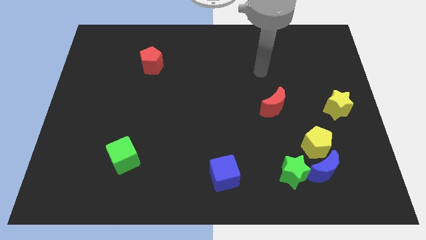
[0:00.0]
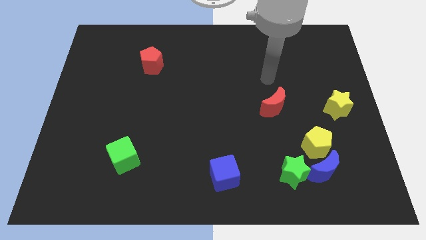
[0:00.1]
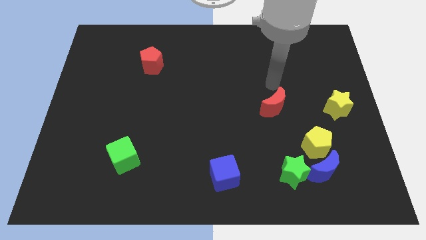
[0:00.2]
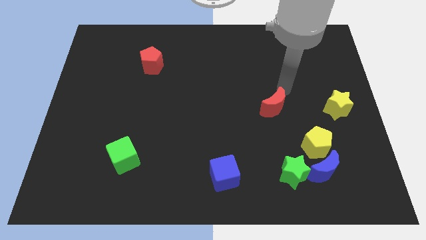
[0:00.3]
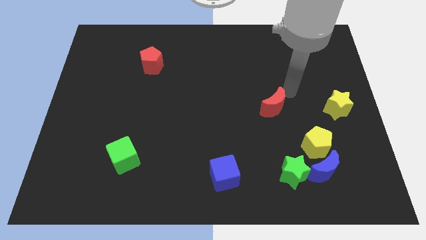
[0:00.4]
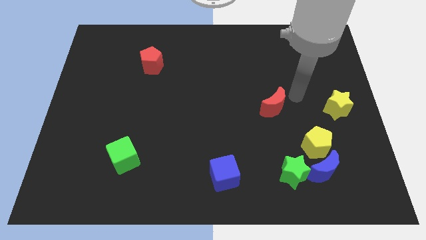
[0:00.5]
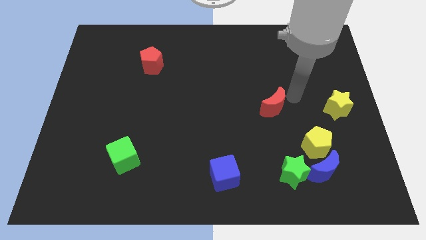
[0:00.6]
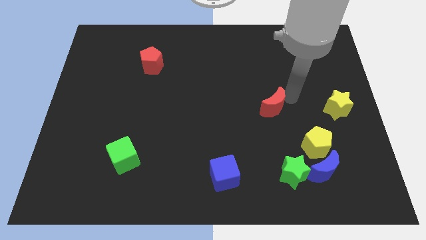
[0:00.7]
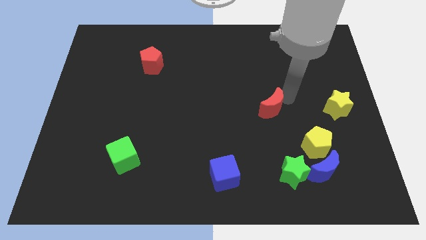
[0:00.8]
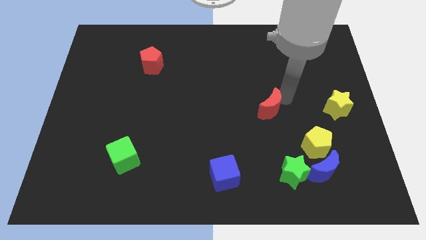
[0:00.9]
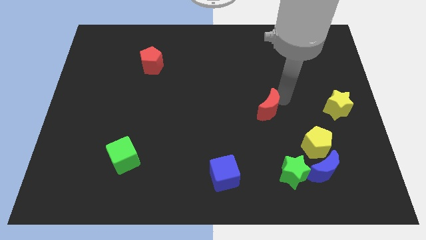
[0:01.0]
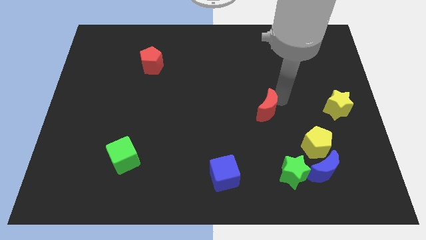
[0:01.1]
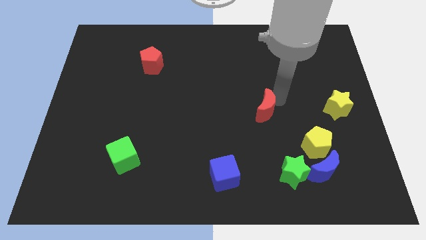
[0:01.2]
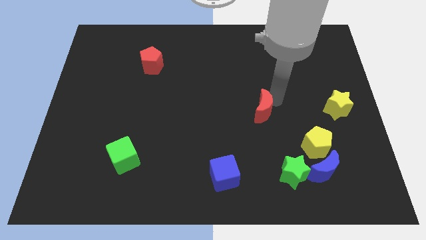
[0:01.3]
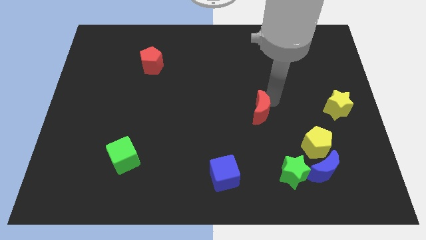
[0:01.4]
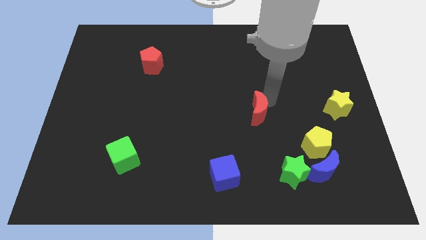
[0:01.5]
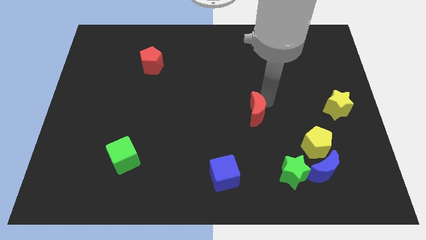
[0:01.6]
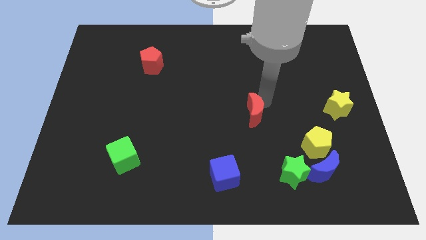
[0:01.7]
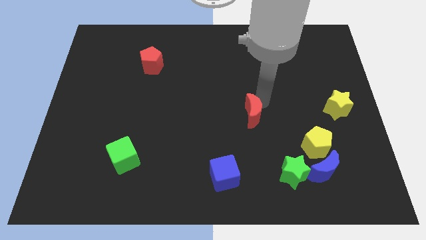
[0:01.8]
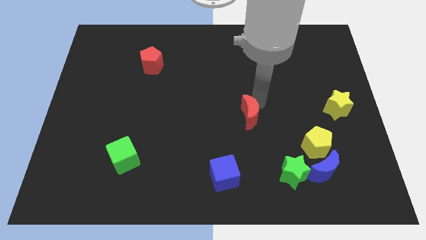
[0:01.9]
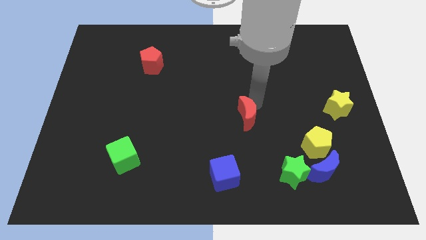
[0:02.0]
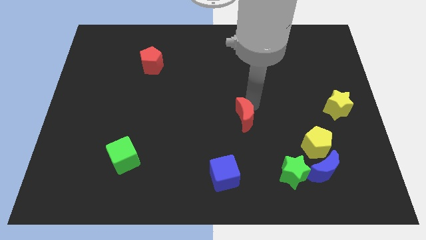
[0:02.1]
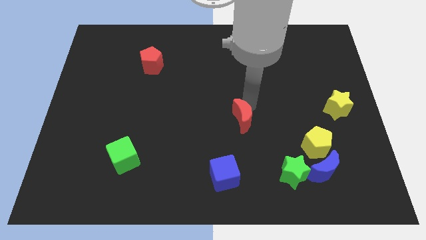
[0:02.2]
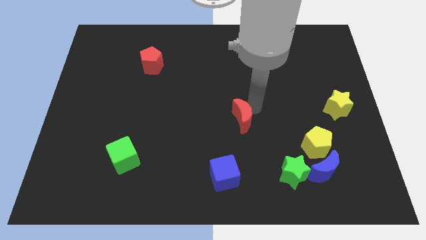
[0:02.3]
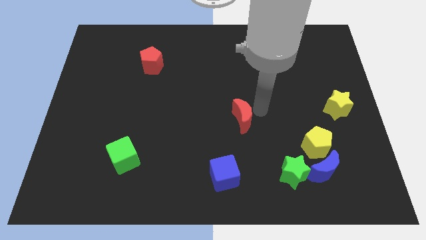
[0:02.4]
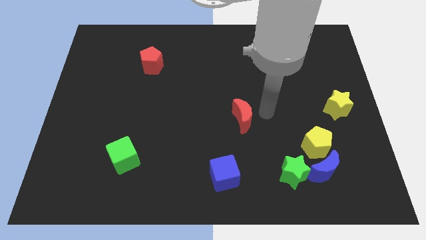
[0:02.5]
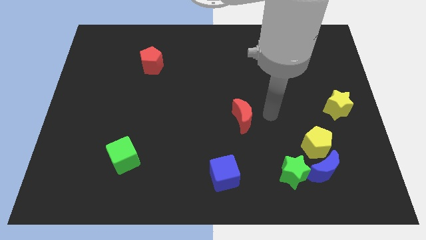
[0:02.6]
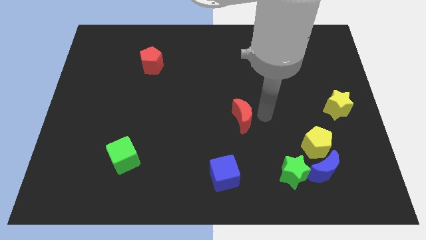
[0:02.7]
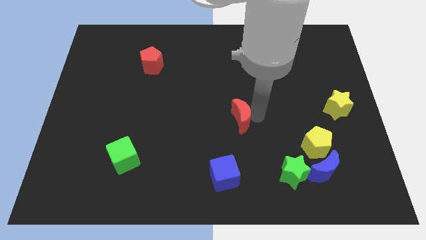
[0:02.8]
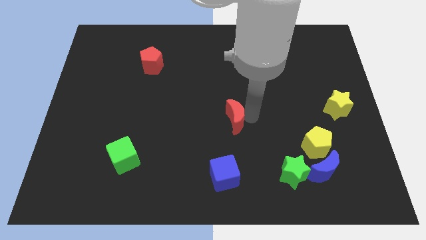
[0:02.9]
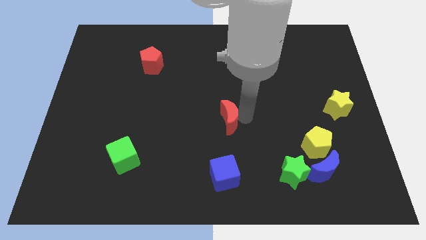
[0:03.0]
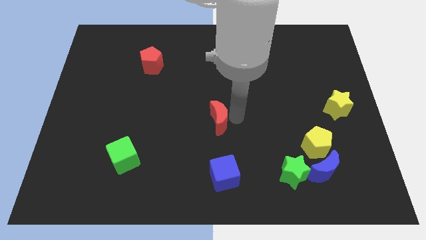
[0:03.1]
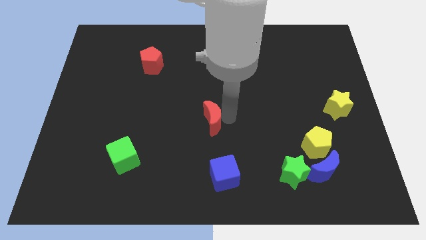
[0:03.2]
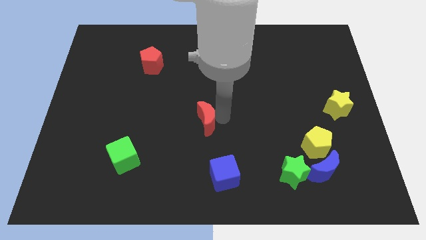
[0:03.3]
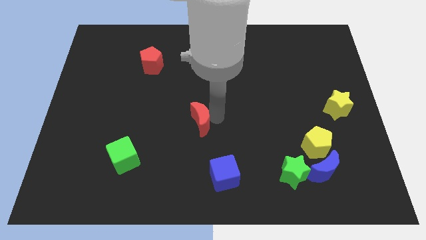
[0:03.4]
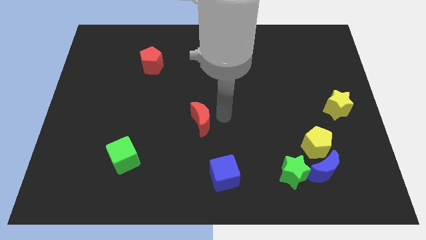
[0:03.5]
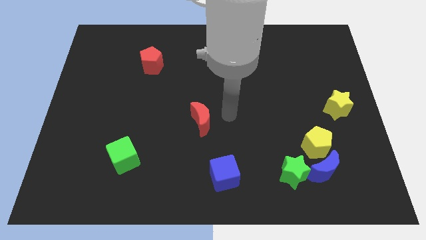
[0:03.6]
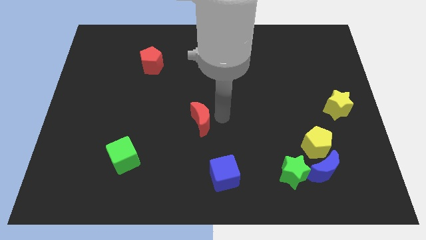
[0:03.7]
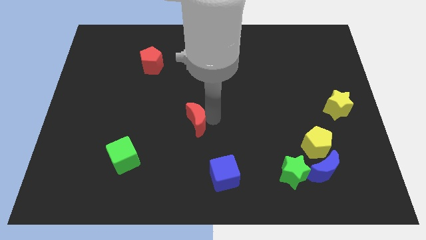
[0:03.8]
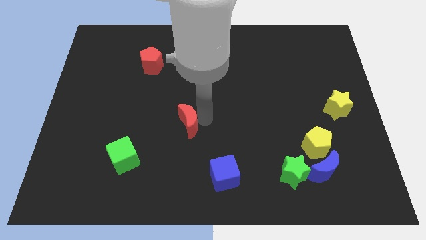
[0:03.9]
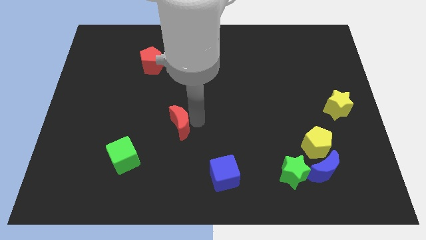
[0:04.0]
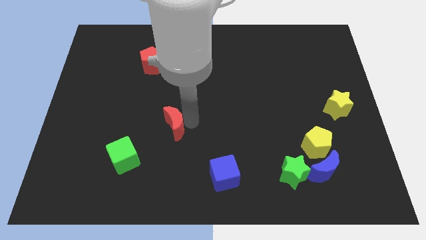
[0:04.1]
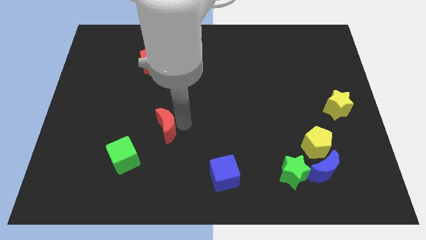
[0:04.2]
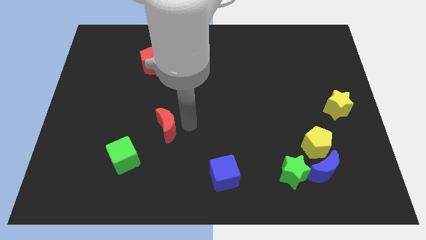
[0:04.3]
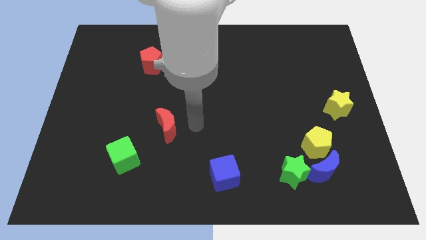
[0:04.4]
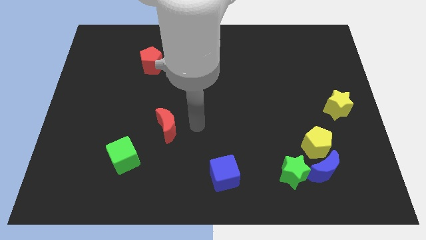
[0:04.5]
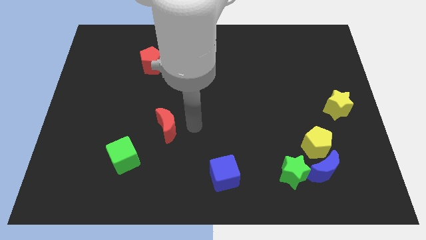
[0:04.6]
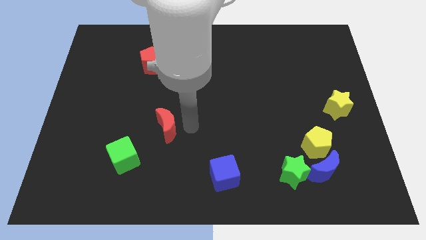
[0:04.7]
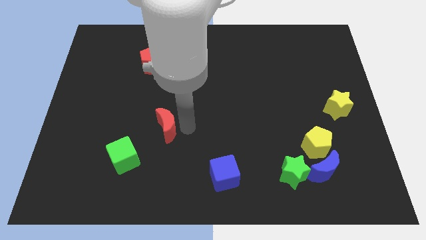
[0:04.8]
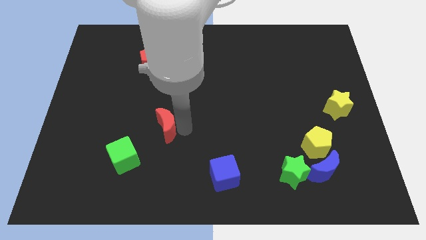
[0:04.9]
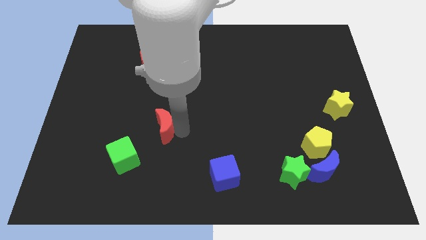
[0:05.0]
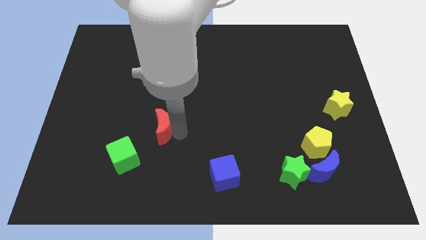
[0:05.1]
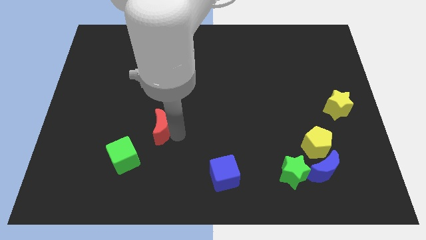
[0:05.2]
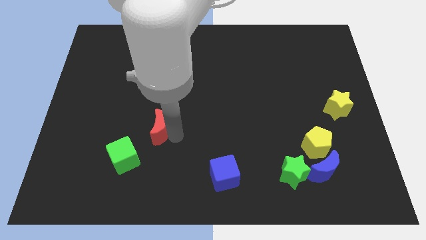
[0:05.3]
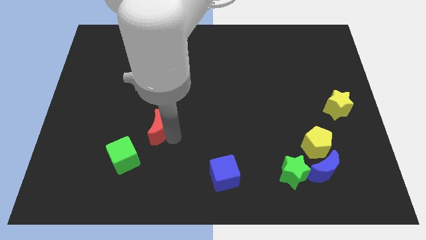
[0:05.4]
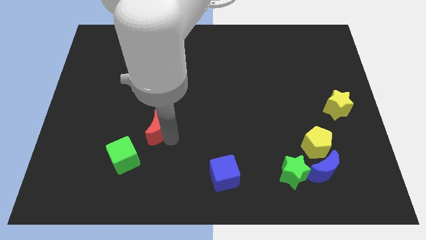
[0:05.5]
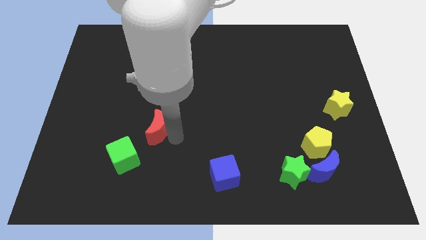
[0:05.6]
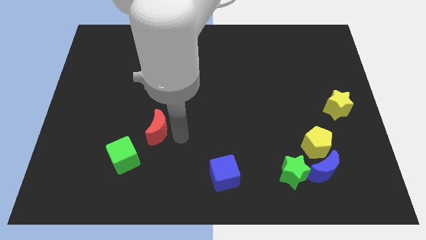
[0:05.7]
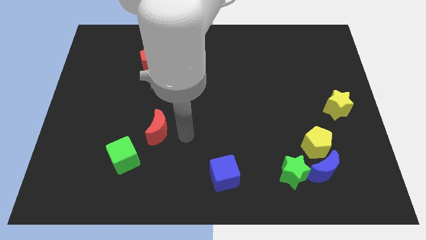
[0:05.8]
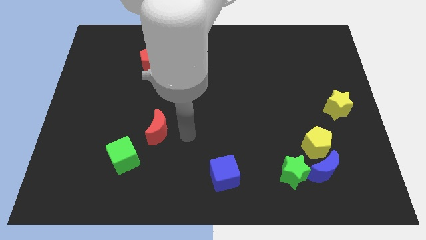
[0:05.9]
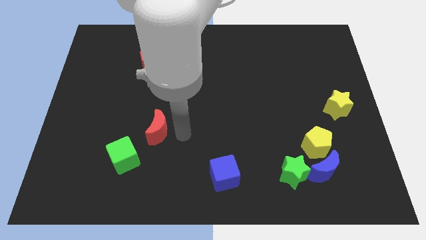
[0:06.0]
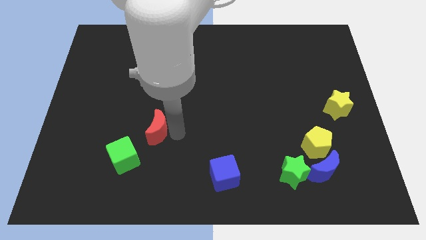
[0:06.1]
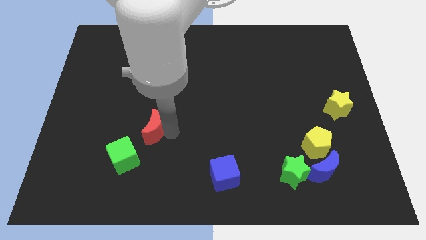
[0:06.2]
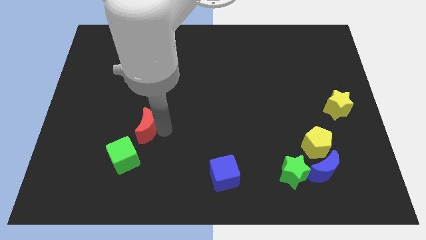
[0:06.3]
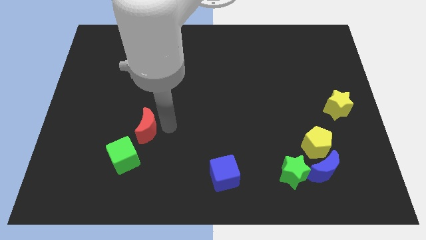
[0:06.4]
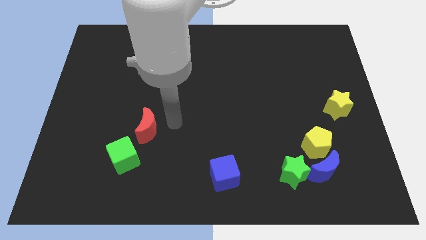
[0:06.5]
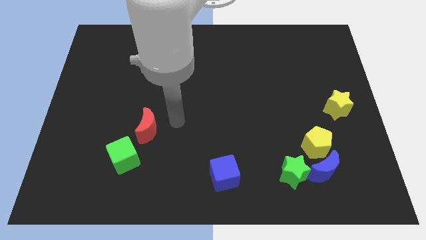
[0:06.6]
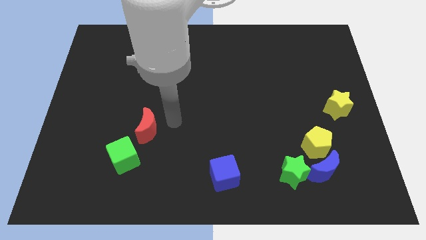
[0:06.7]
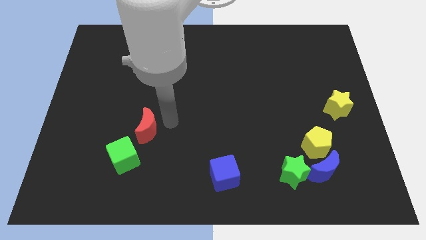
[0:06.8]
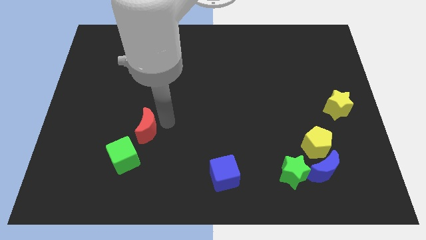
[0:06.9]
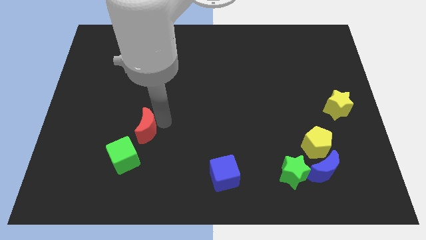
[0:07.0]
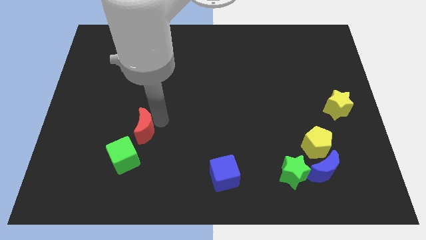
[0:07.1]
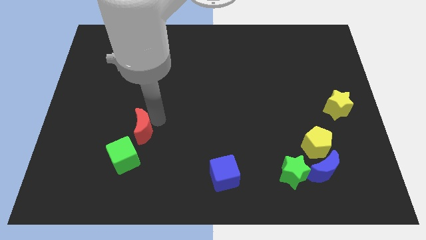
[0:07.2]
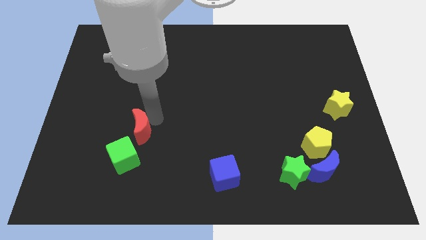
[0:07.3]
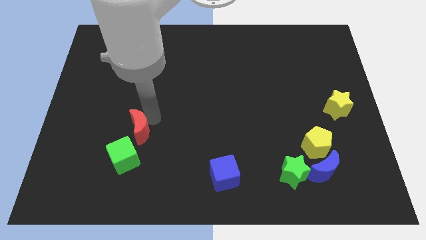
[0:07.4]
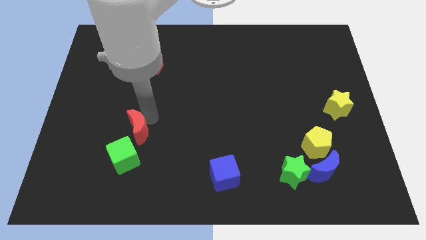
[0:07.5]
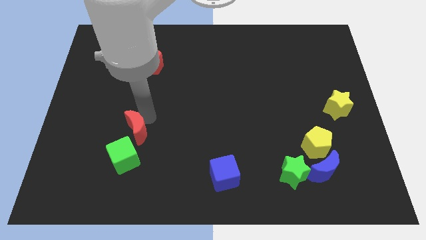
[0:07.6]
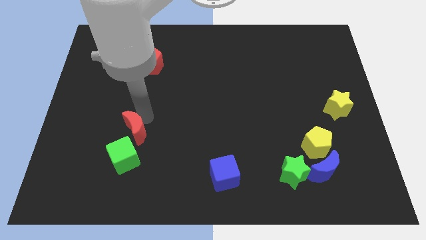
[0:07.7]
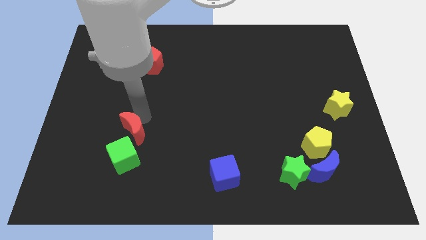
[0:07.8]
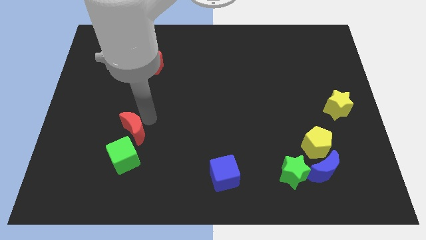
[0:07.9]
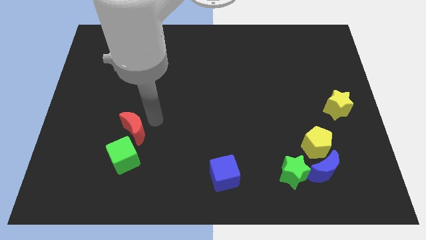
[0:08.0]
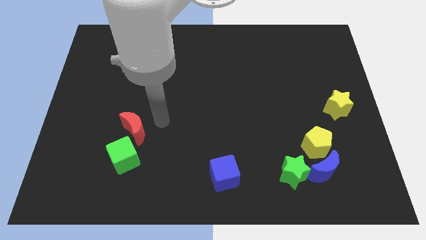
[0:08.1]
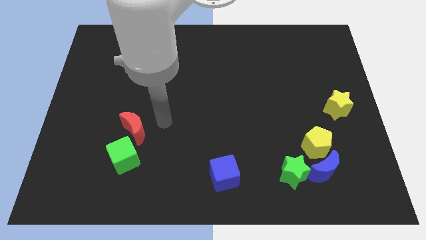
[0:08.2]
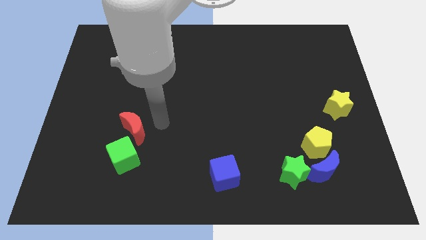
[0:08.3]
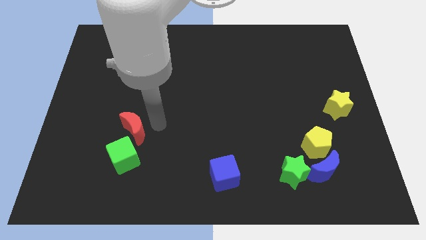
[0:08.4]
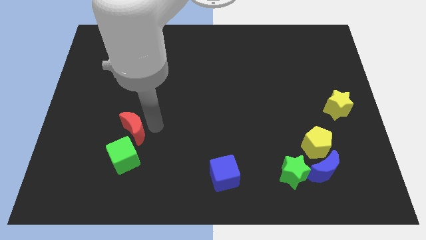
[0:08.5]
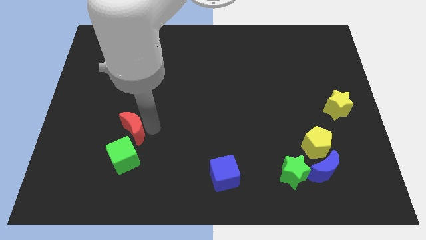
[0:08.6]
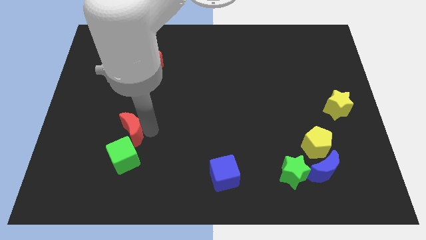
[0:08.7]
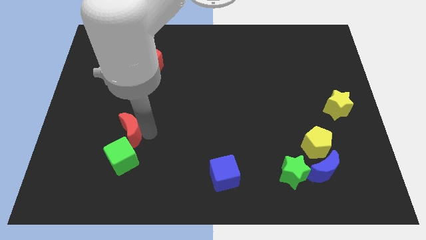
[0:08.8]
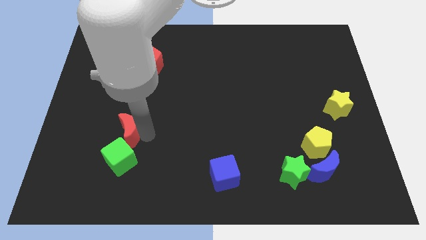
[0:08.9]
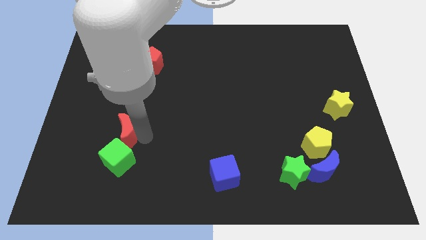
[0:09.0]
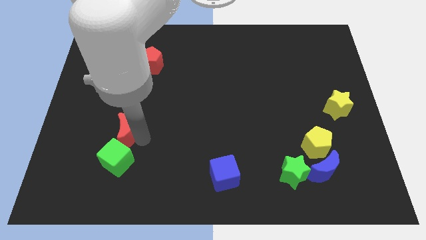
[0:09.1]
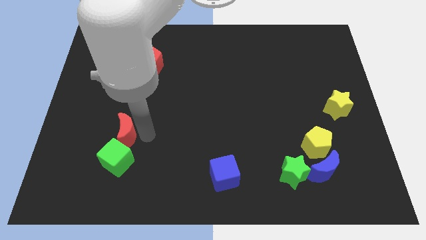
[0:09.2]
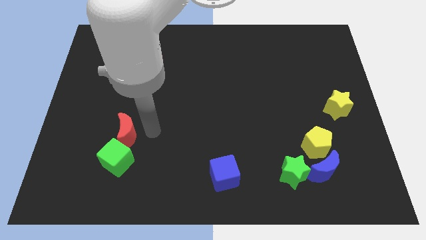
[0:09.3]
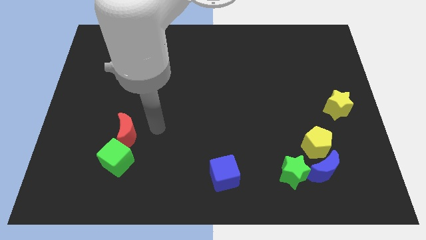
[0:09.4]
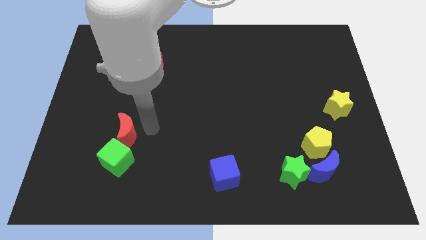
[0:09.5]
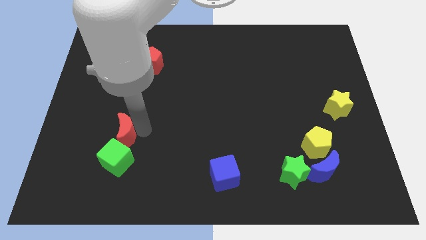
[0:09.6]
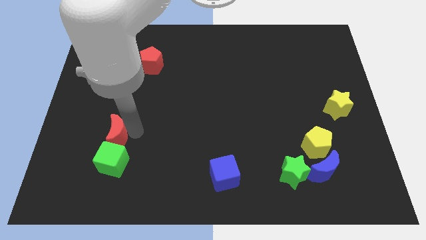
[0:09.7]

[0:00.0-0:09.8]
move the red moon diagonally up and to the left of the green cube
